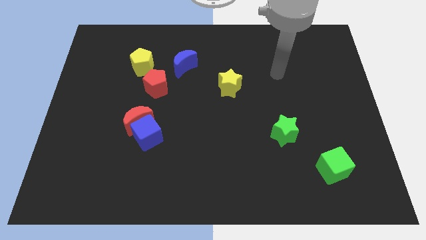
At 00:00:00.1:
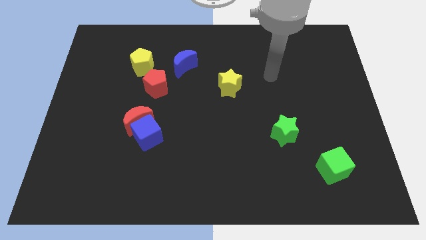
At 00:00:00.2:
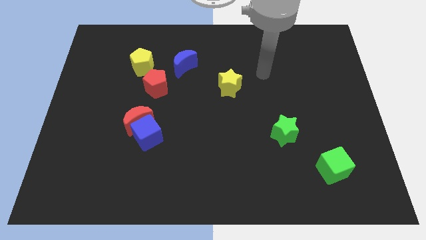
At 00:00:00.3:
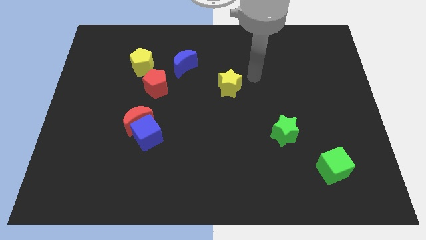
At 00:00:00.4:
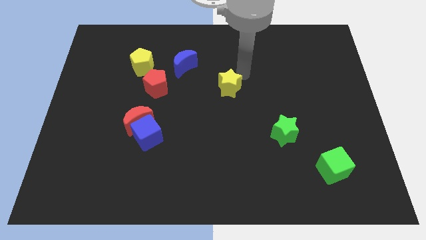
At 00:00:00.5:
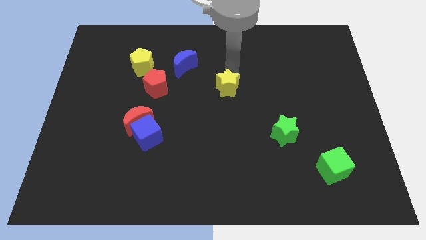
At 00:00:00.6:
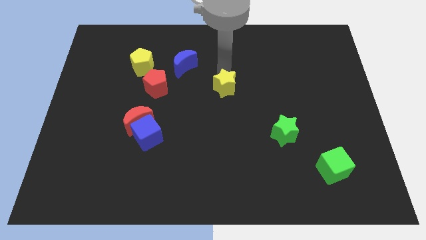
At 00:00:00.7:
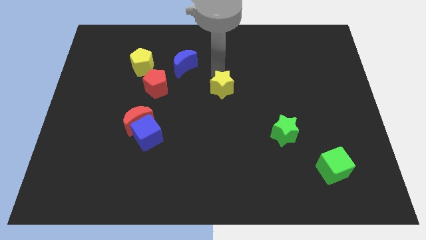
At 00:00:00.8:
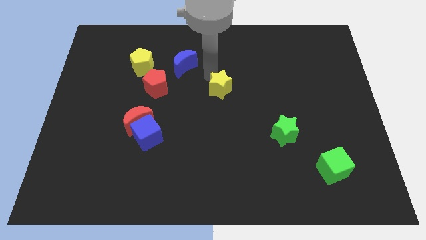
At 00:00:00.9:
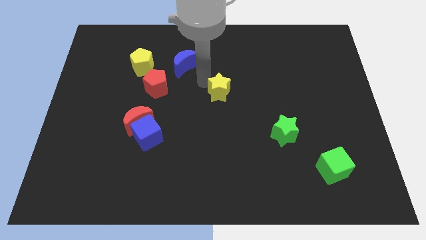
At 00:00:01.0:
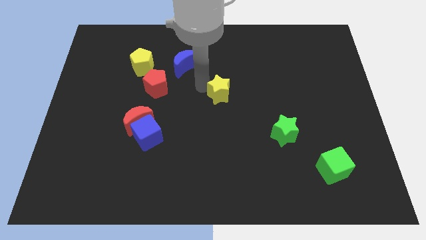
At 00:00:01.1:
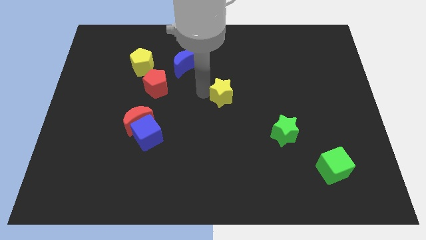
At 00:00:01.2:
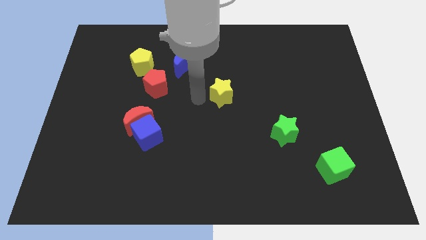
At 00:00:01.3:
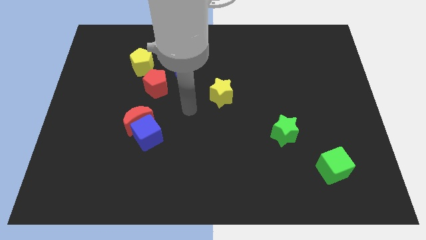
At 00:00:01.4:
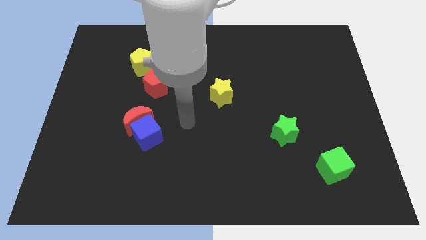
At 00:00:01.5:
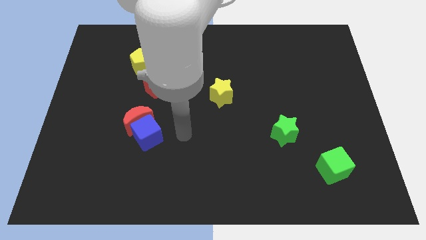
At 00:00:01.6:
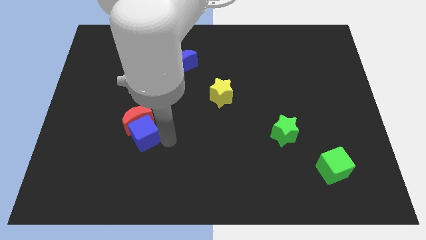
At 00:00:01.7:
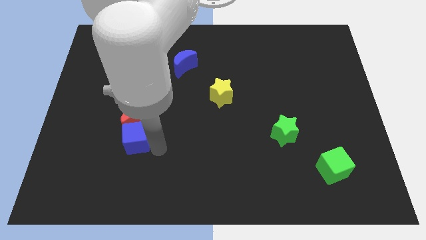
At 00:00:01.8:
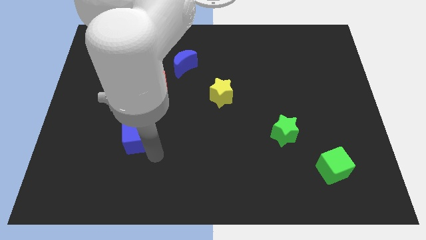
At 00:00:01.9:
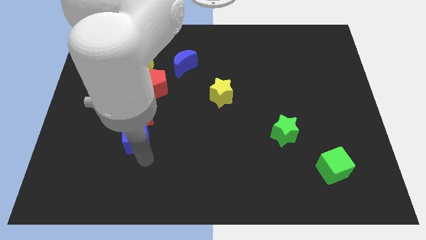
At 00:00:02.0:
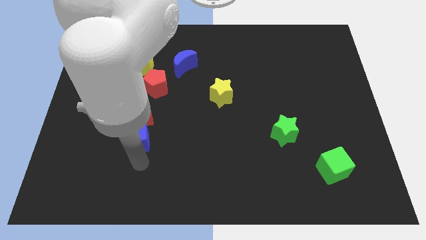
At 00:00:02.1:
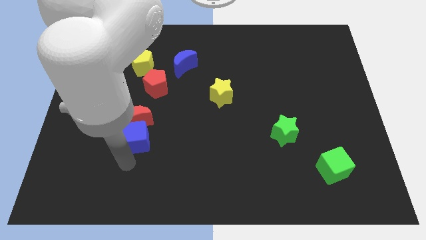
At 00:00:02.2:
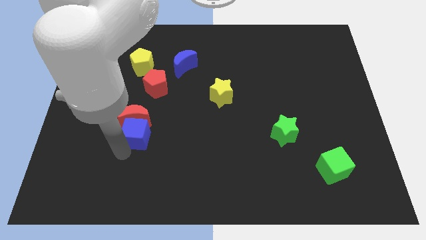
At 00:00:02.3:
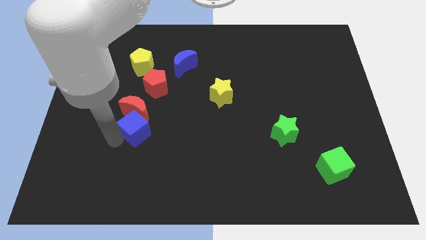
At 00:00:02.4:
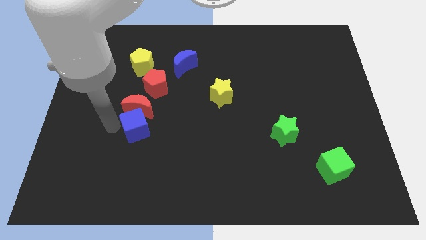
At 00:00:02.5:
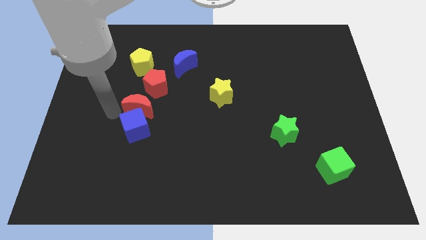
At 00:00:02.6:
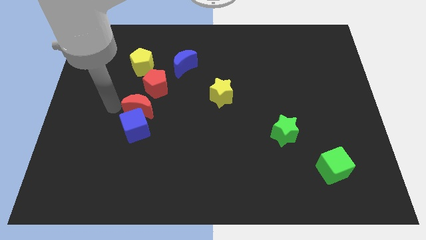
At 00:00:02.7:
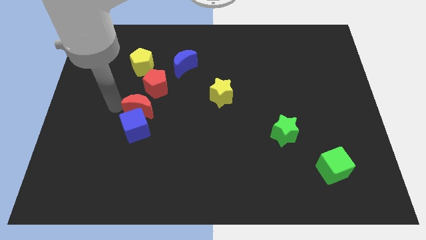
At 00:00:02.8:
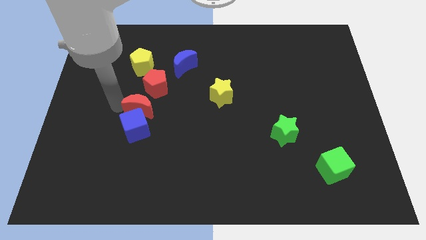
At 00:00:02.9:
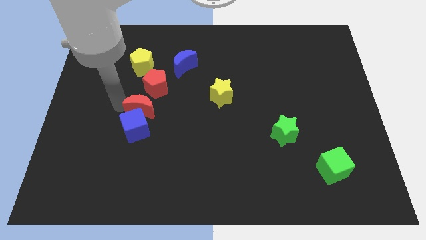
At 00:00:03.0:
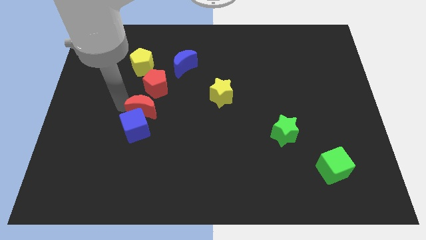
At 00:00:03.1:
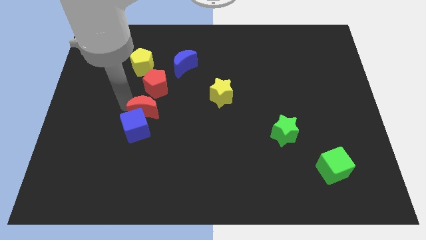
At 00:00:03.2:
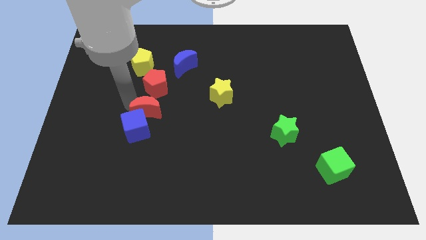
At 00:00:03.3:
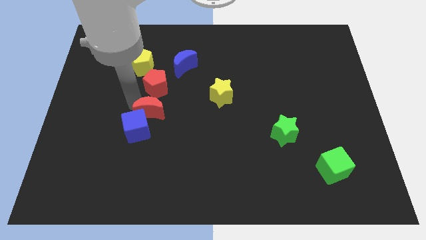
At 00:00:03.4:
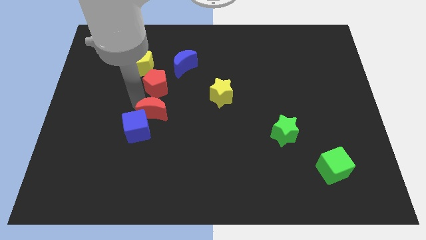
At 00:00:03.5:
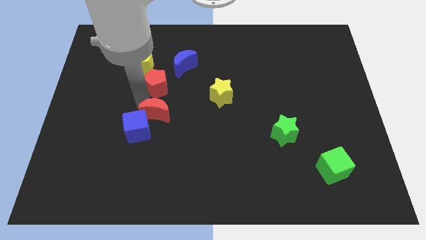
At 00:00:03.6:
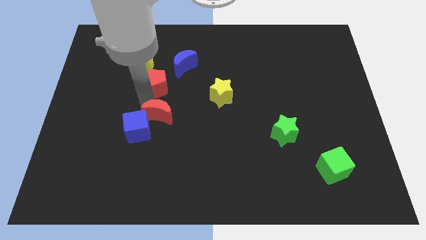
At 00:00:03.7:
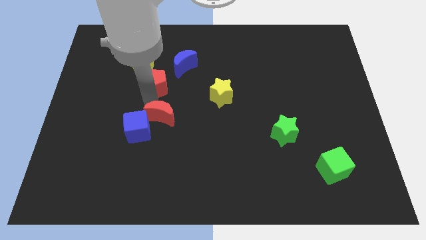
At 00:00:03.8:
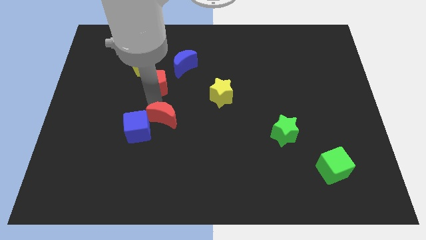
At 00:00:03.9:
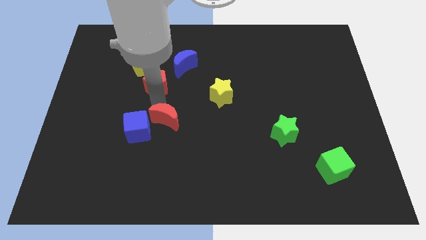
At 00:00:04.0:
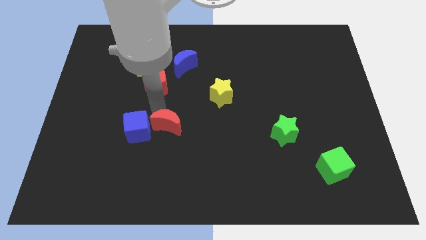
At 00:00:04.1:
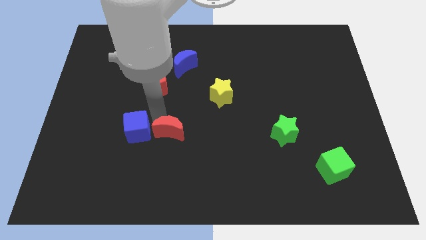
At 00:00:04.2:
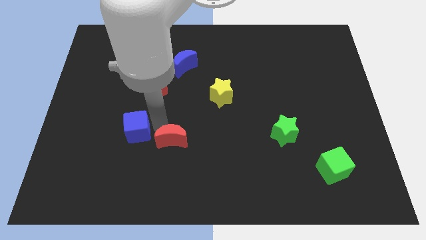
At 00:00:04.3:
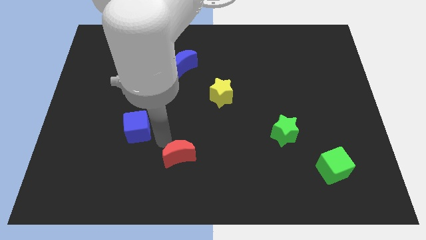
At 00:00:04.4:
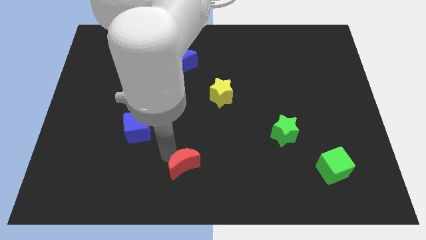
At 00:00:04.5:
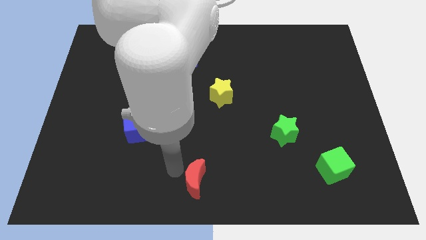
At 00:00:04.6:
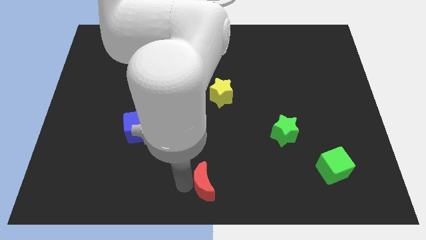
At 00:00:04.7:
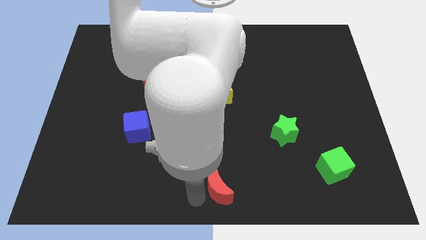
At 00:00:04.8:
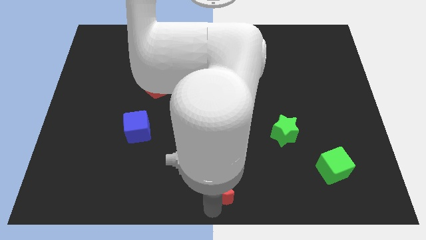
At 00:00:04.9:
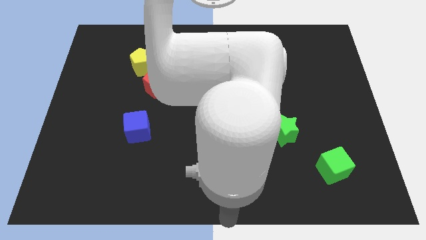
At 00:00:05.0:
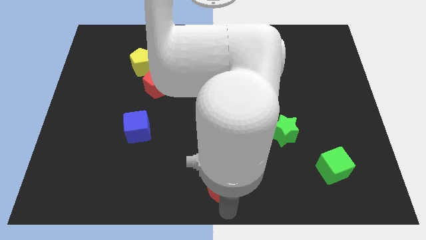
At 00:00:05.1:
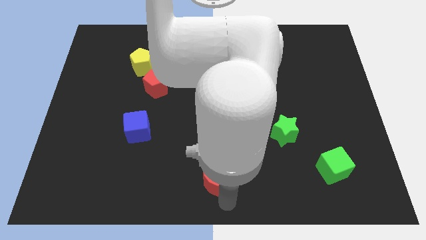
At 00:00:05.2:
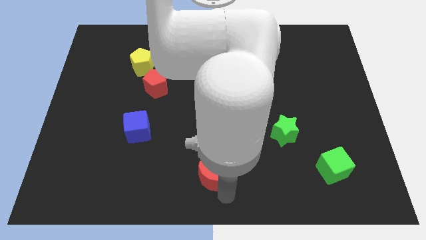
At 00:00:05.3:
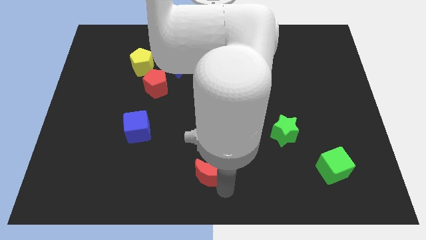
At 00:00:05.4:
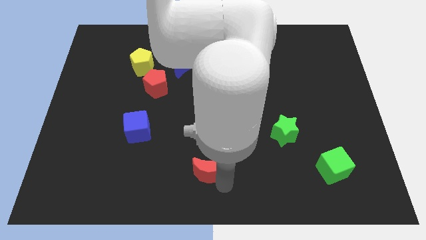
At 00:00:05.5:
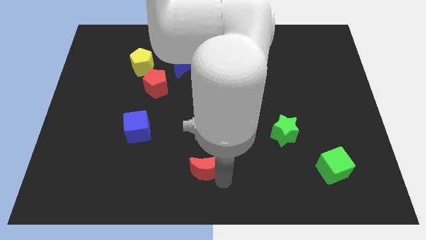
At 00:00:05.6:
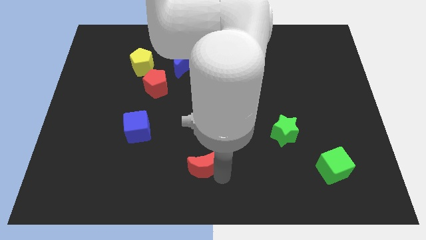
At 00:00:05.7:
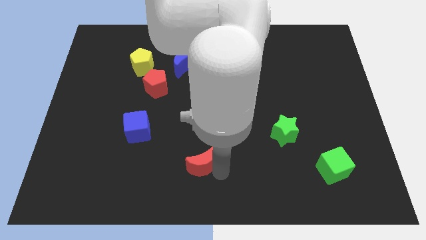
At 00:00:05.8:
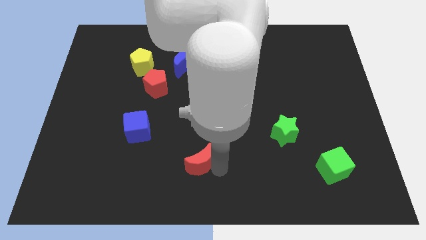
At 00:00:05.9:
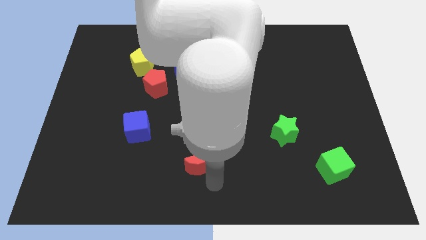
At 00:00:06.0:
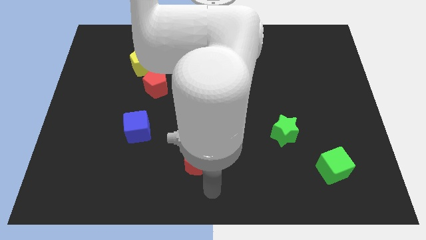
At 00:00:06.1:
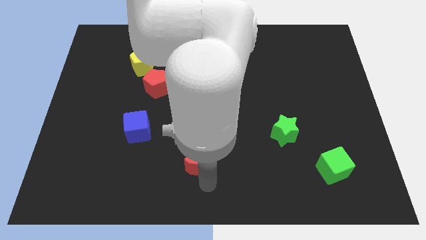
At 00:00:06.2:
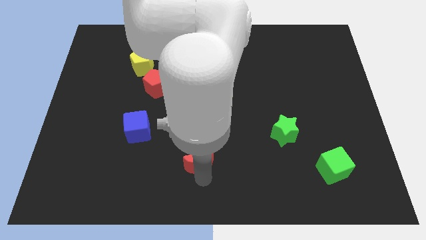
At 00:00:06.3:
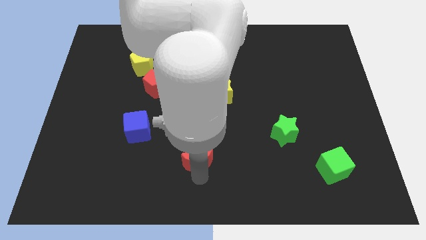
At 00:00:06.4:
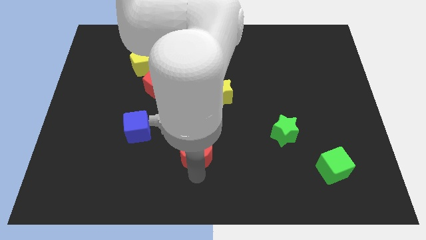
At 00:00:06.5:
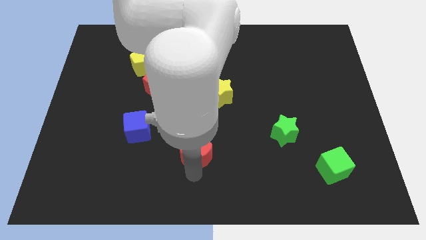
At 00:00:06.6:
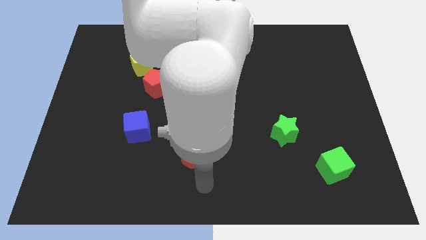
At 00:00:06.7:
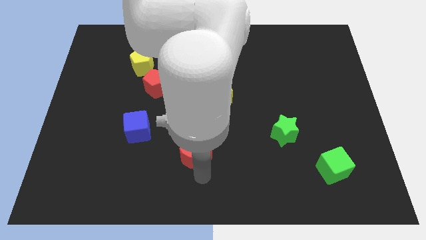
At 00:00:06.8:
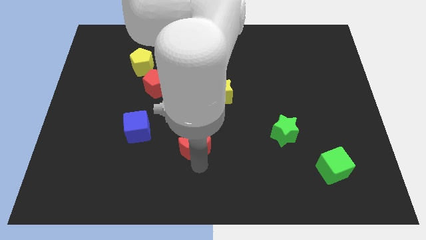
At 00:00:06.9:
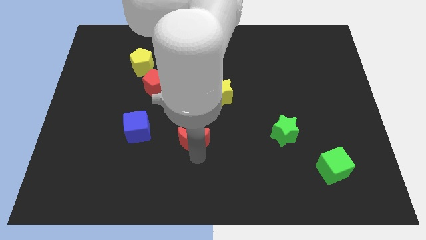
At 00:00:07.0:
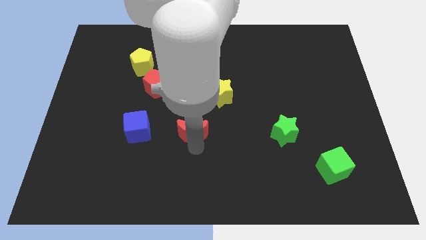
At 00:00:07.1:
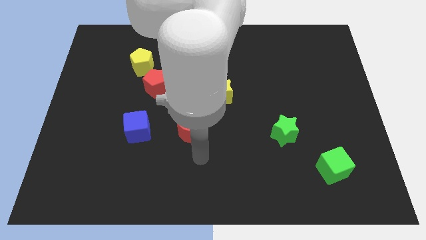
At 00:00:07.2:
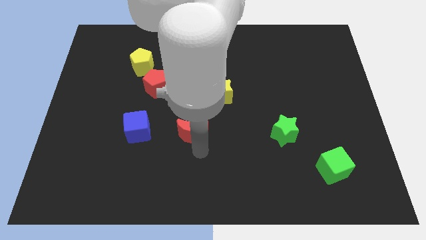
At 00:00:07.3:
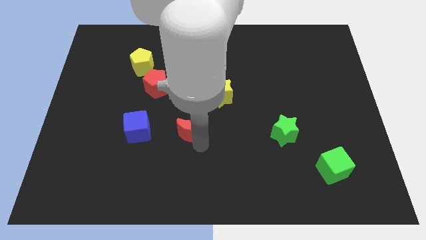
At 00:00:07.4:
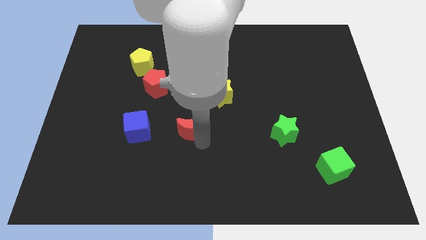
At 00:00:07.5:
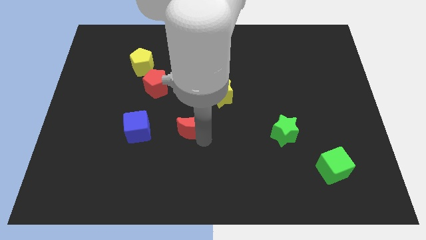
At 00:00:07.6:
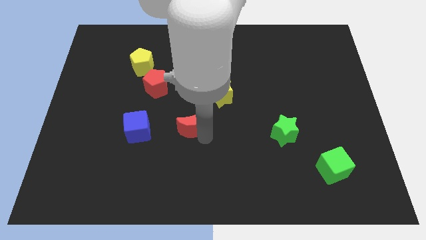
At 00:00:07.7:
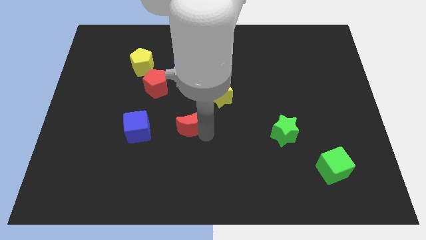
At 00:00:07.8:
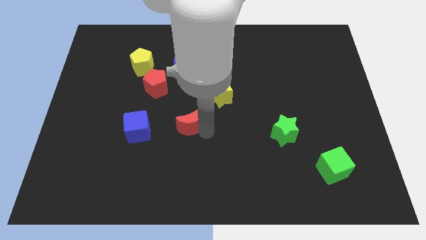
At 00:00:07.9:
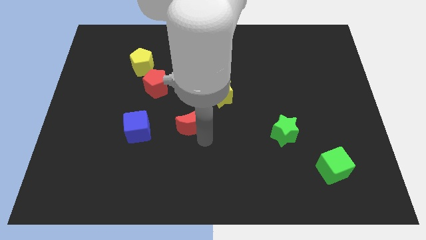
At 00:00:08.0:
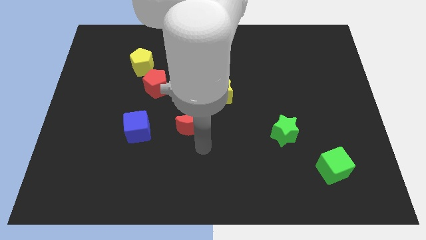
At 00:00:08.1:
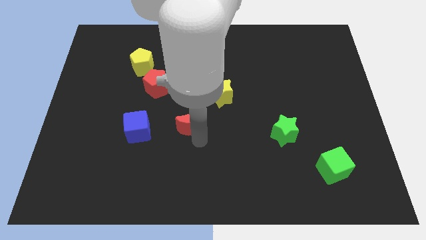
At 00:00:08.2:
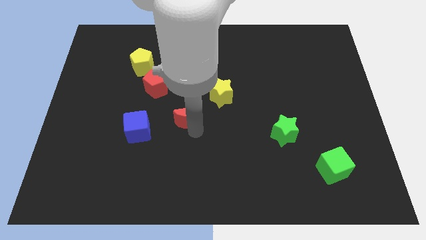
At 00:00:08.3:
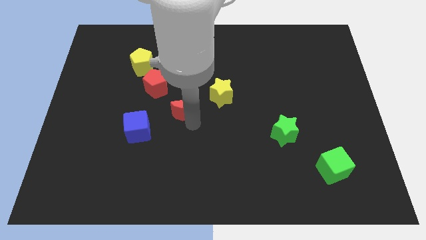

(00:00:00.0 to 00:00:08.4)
slightly move the red moon up and then right
